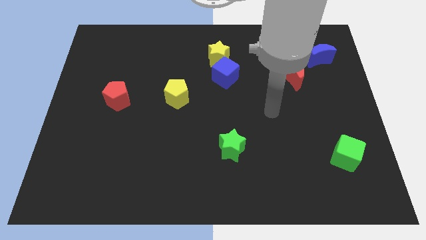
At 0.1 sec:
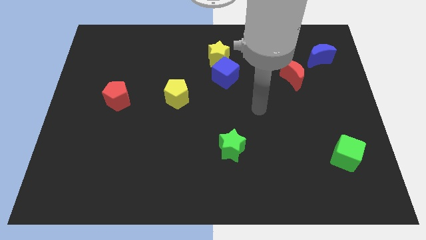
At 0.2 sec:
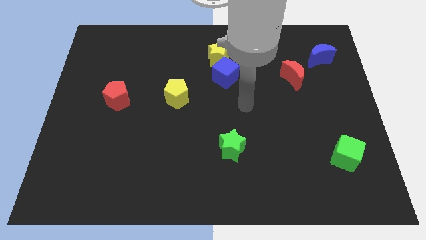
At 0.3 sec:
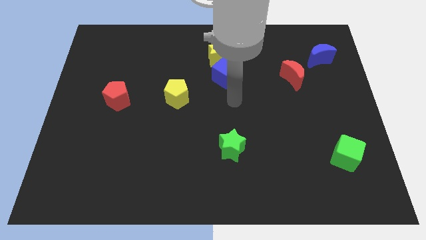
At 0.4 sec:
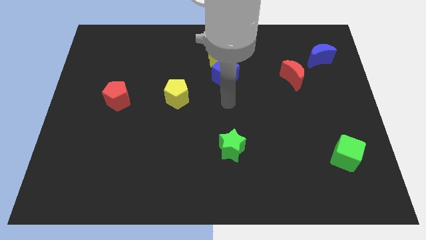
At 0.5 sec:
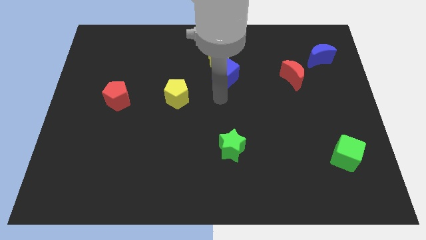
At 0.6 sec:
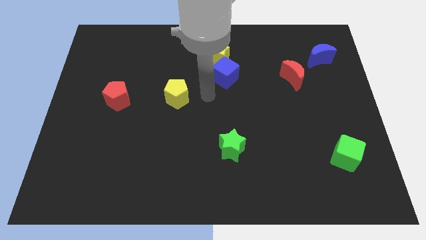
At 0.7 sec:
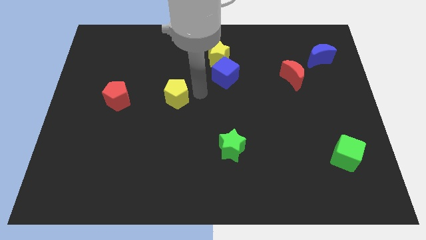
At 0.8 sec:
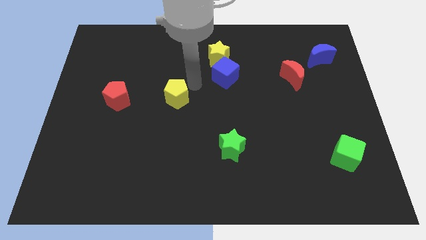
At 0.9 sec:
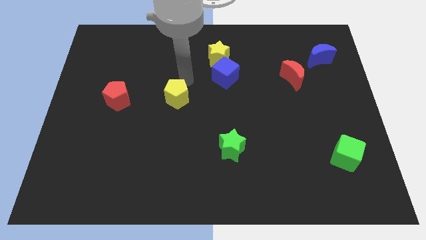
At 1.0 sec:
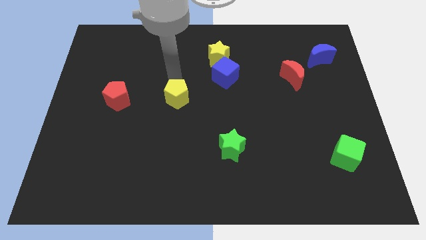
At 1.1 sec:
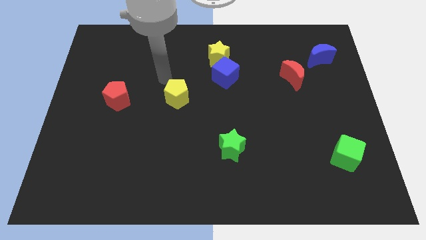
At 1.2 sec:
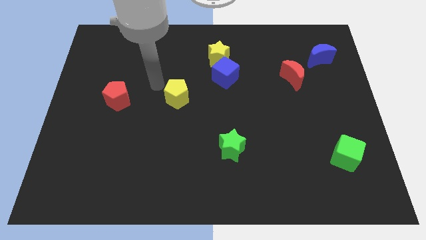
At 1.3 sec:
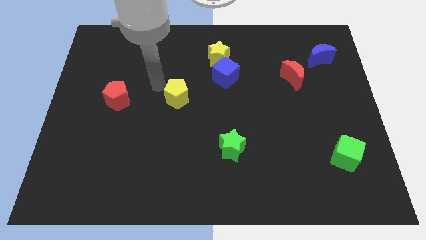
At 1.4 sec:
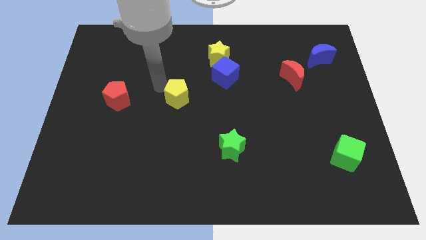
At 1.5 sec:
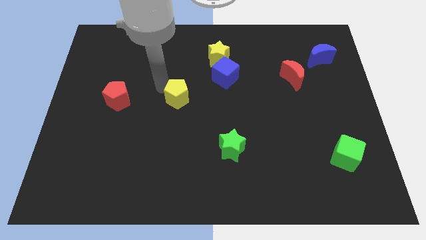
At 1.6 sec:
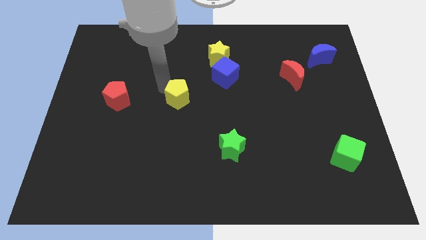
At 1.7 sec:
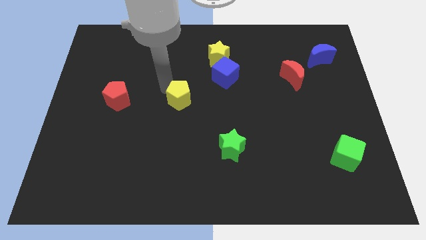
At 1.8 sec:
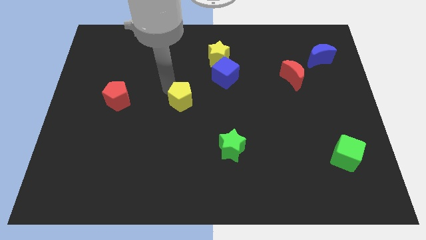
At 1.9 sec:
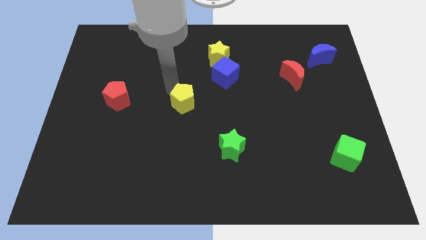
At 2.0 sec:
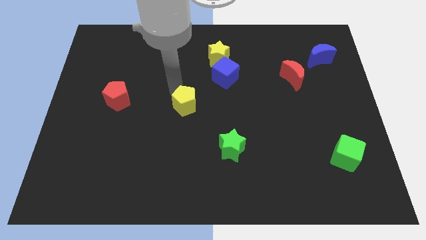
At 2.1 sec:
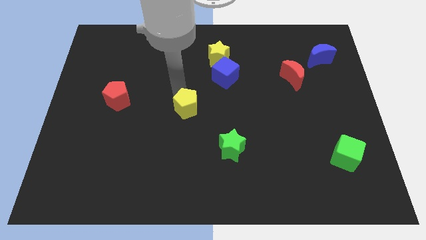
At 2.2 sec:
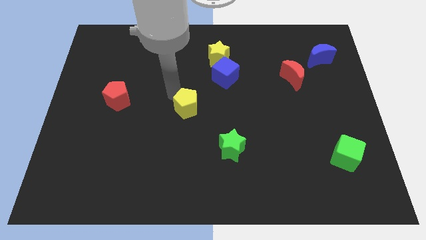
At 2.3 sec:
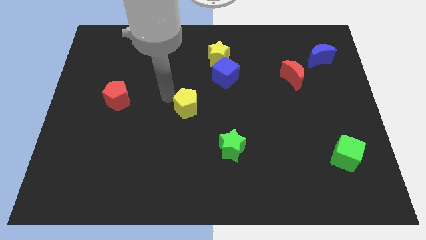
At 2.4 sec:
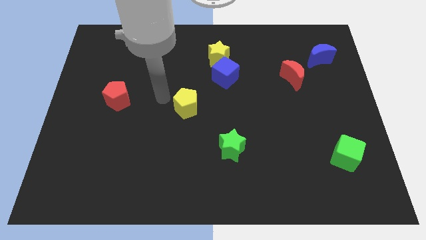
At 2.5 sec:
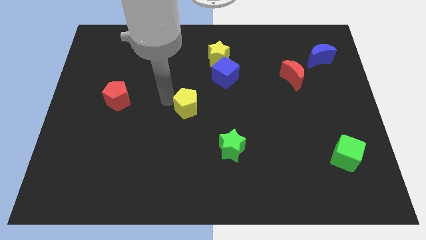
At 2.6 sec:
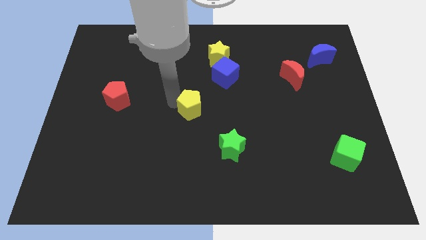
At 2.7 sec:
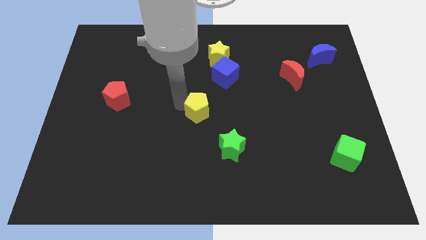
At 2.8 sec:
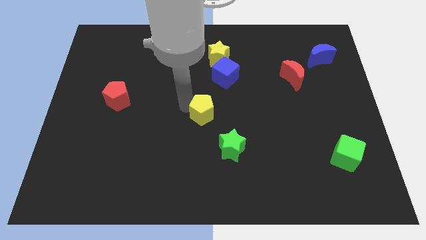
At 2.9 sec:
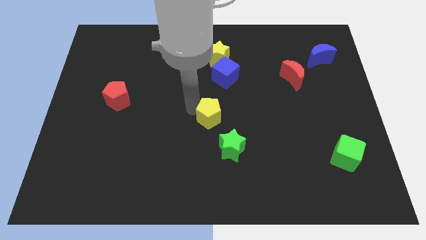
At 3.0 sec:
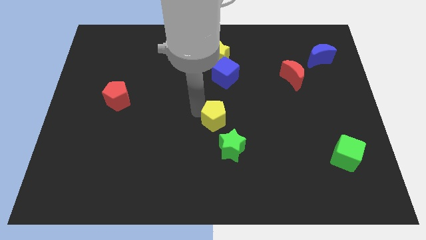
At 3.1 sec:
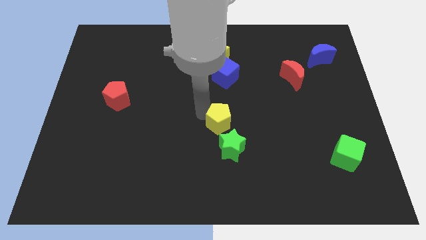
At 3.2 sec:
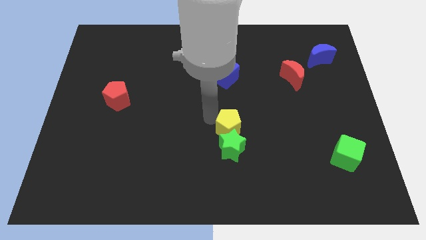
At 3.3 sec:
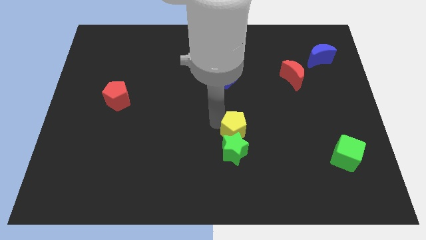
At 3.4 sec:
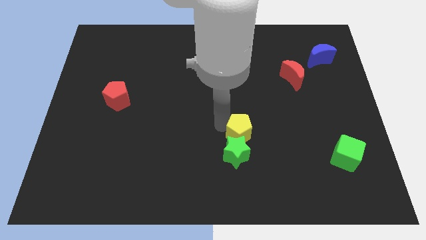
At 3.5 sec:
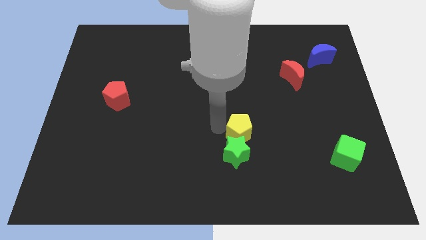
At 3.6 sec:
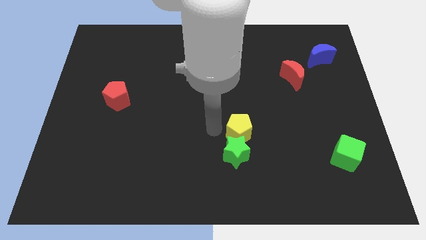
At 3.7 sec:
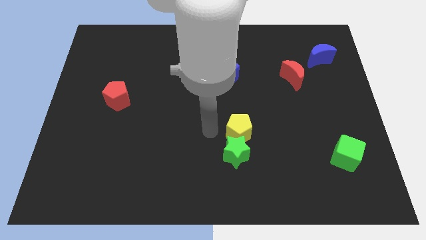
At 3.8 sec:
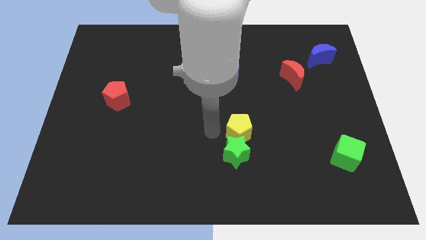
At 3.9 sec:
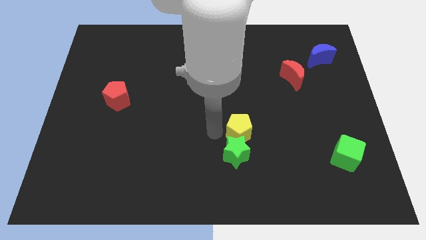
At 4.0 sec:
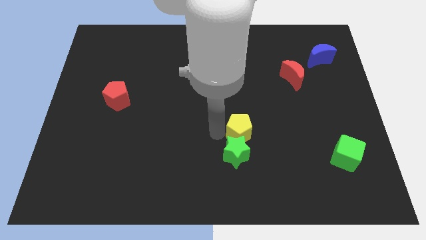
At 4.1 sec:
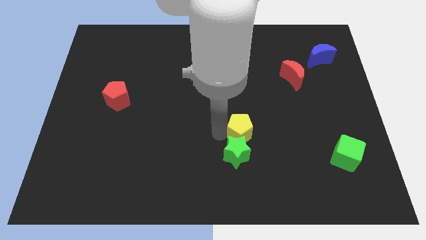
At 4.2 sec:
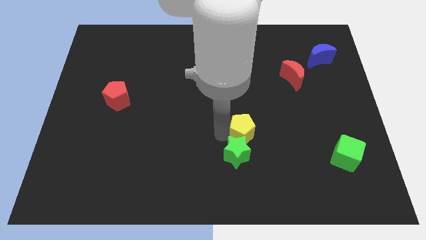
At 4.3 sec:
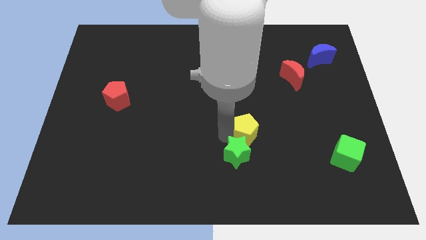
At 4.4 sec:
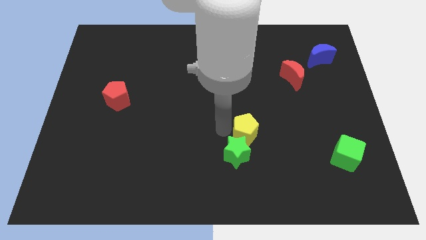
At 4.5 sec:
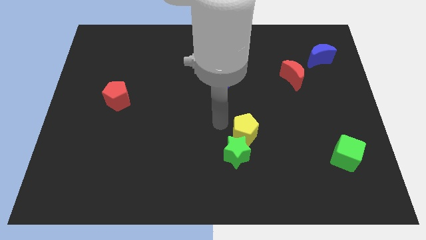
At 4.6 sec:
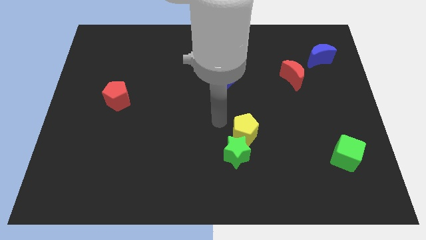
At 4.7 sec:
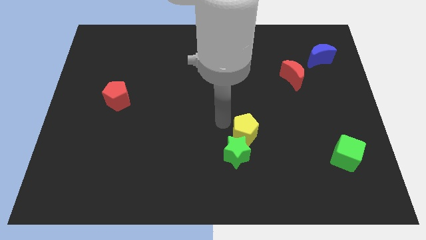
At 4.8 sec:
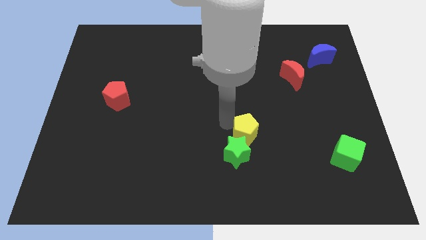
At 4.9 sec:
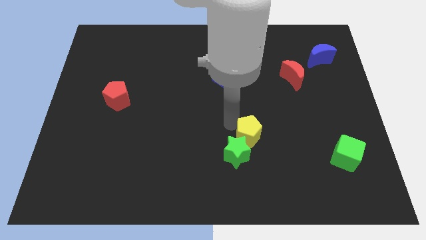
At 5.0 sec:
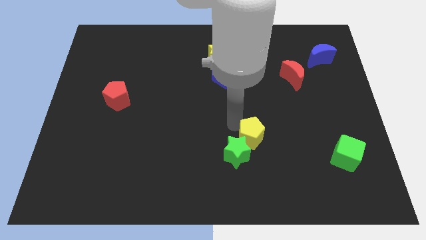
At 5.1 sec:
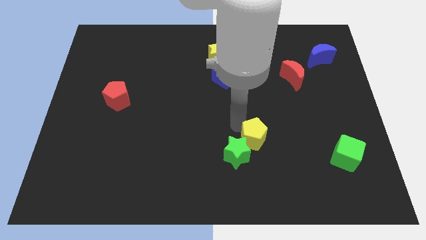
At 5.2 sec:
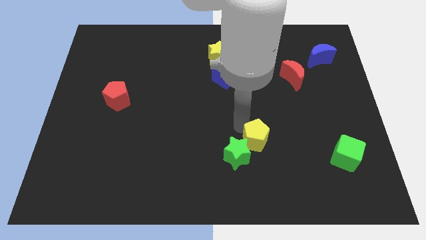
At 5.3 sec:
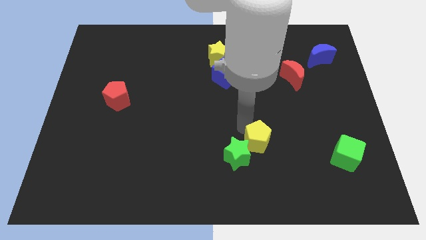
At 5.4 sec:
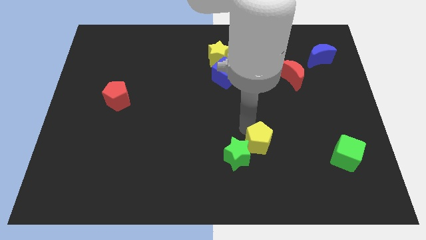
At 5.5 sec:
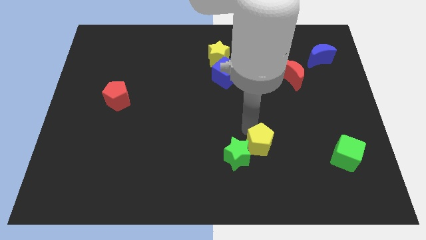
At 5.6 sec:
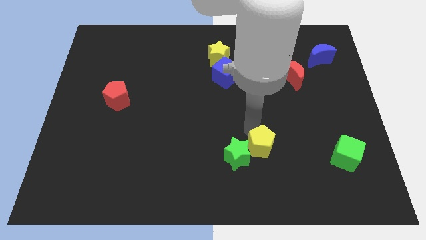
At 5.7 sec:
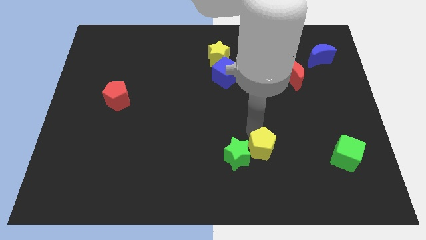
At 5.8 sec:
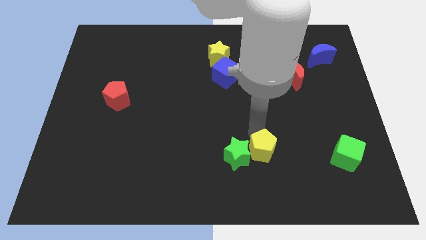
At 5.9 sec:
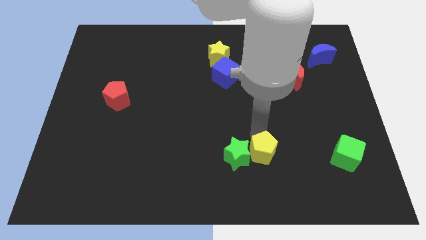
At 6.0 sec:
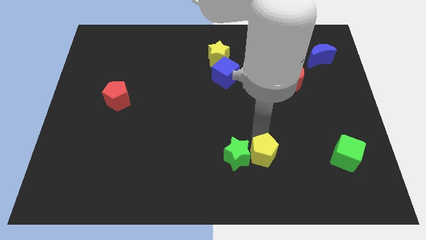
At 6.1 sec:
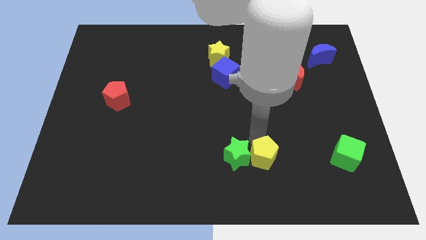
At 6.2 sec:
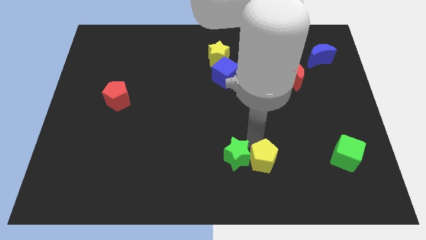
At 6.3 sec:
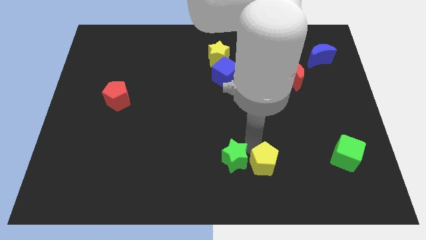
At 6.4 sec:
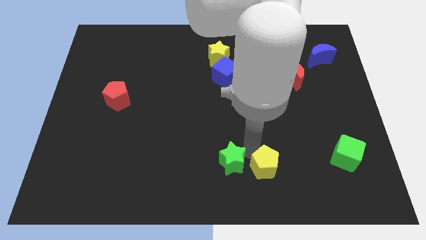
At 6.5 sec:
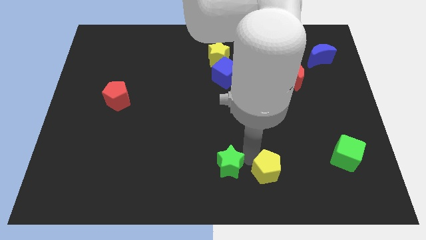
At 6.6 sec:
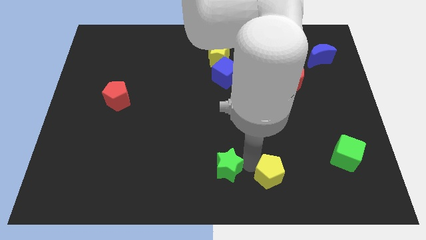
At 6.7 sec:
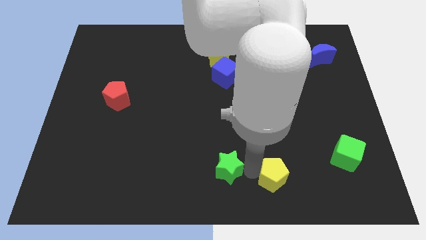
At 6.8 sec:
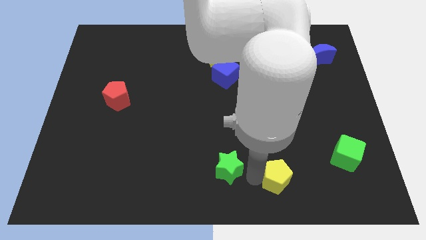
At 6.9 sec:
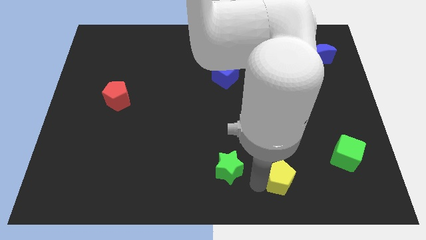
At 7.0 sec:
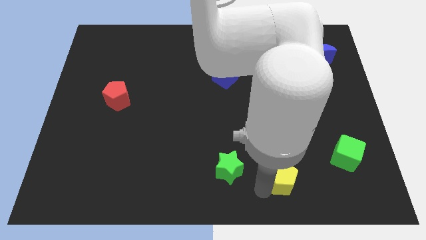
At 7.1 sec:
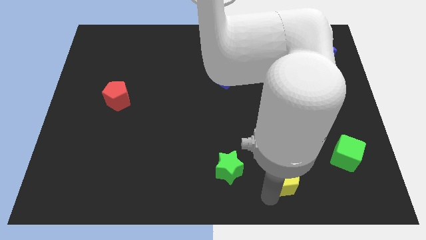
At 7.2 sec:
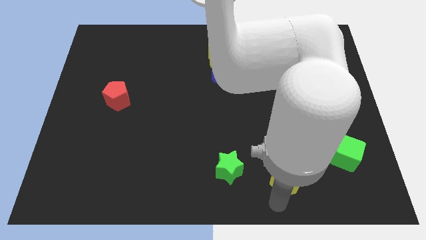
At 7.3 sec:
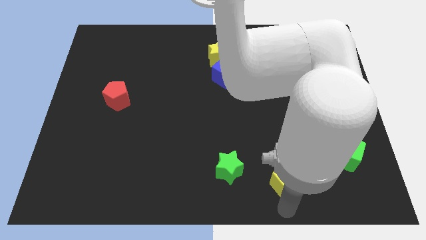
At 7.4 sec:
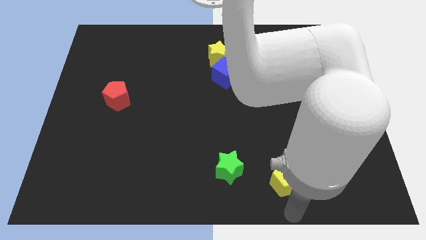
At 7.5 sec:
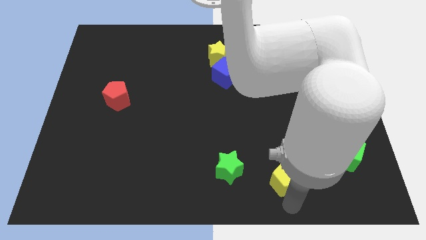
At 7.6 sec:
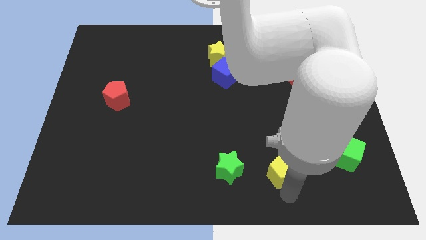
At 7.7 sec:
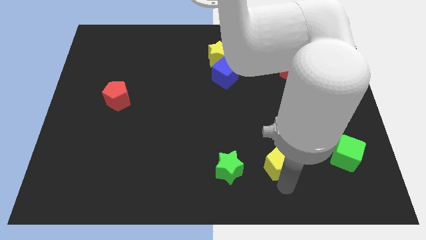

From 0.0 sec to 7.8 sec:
put the yellow pentagon to the left of the green cube
